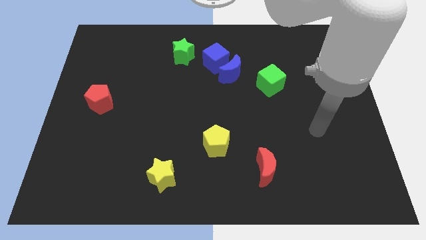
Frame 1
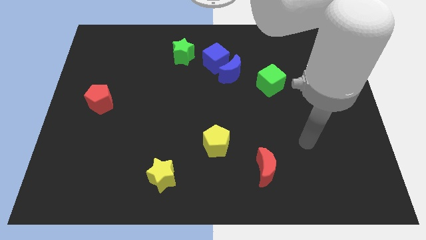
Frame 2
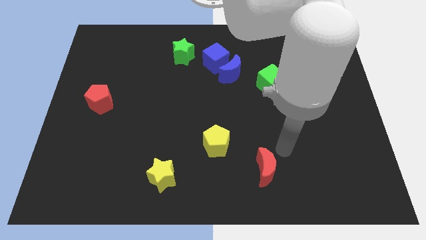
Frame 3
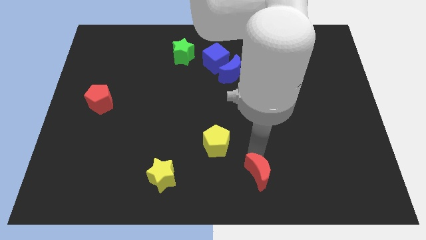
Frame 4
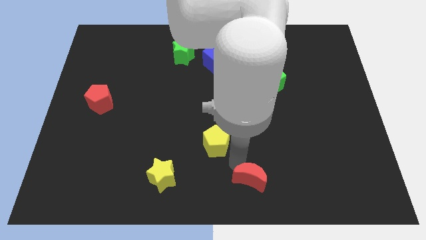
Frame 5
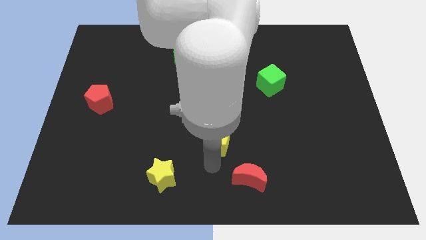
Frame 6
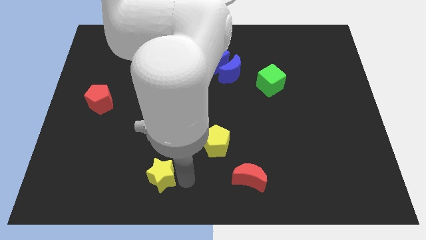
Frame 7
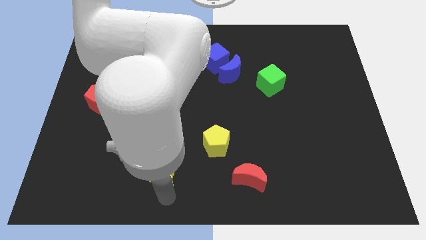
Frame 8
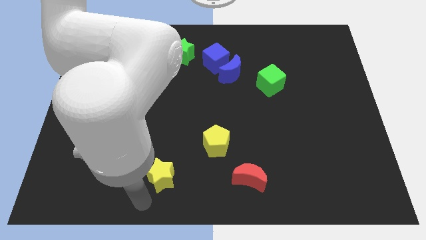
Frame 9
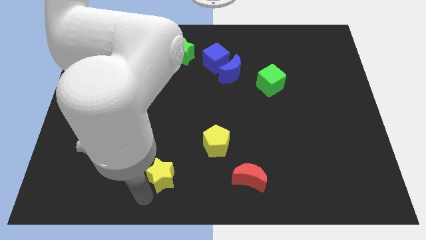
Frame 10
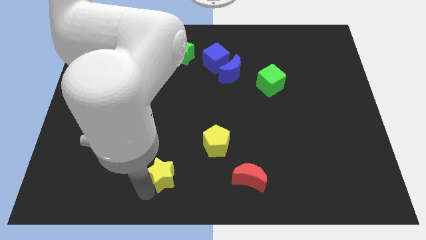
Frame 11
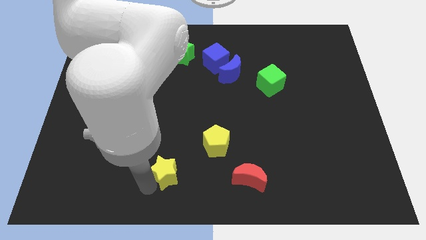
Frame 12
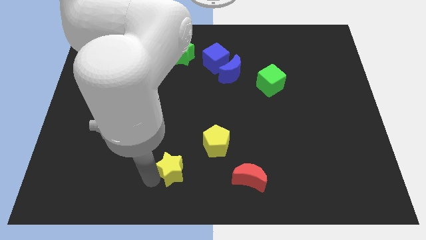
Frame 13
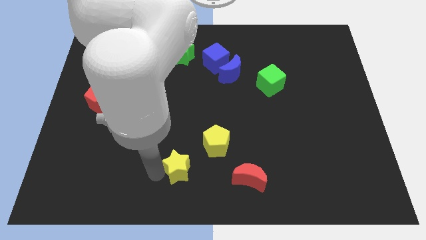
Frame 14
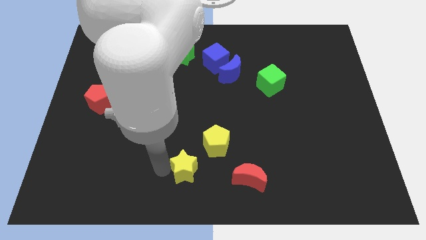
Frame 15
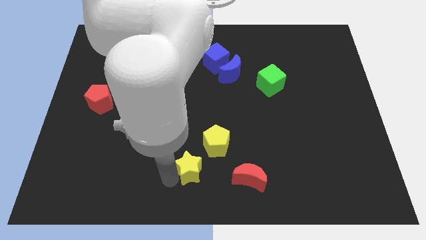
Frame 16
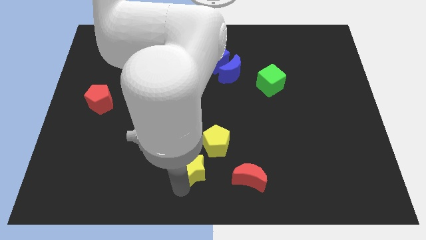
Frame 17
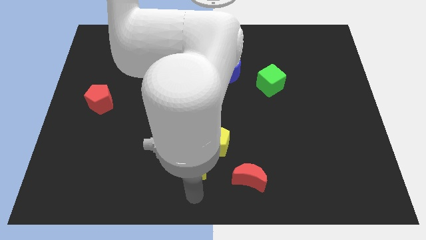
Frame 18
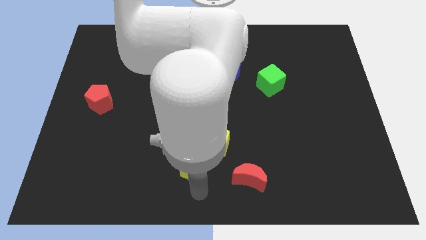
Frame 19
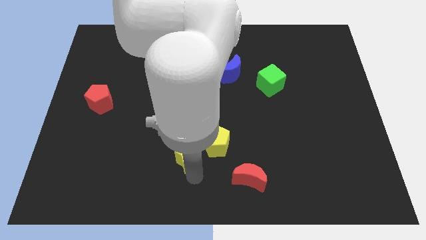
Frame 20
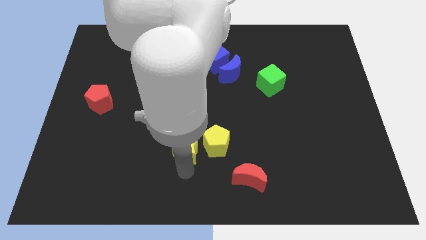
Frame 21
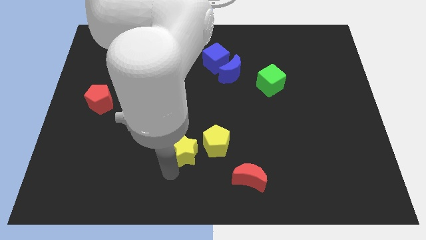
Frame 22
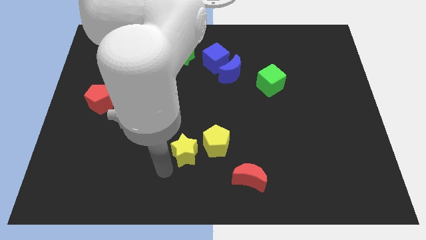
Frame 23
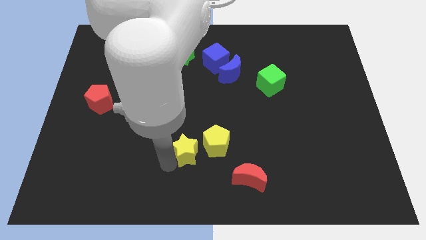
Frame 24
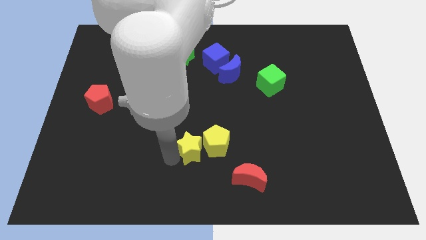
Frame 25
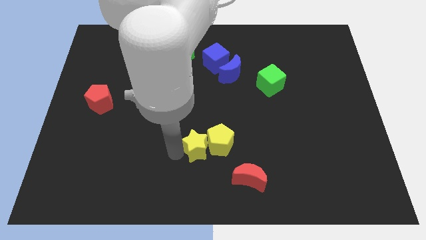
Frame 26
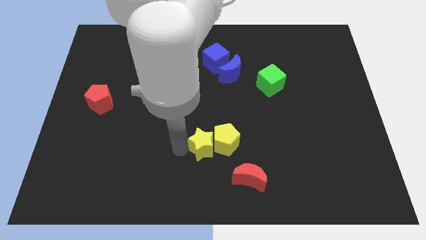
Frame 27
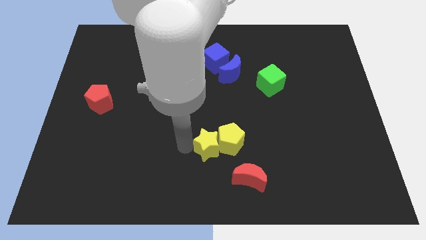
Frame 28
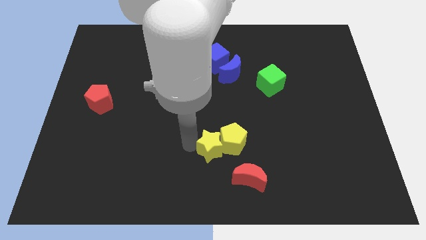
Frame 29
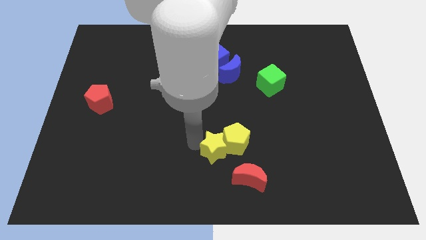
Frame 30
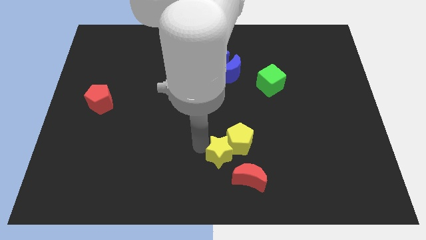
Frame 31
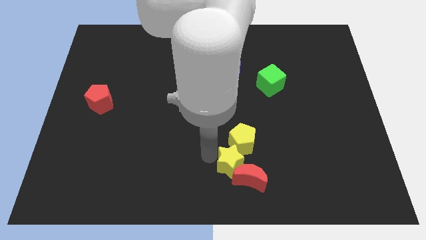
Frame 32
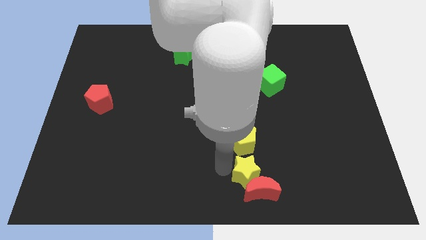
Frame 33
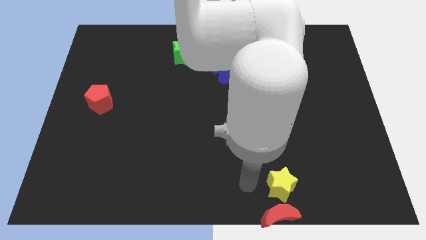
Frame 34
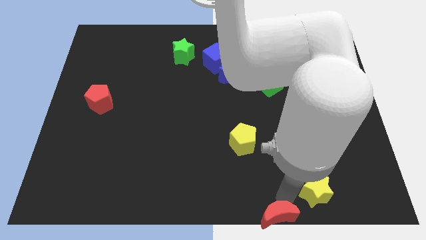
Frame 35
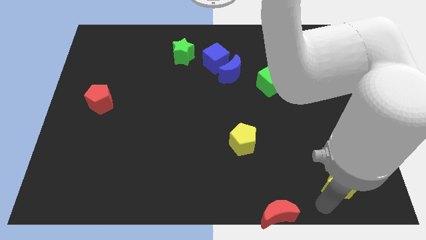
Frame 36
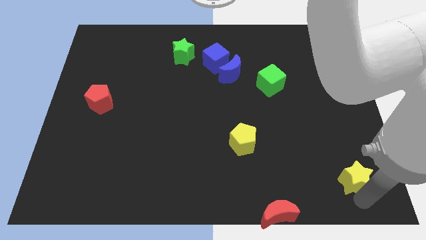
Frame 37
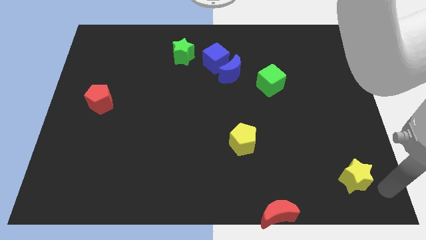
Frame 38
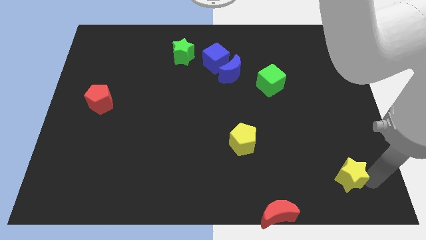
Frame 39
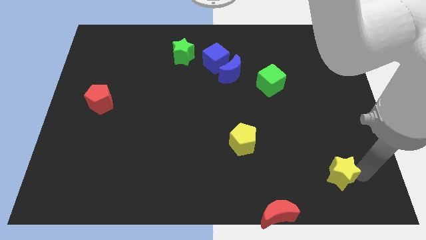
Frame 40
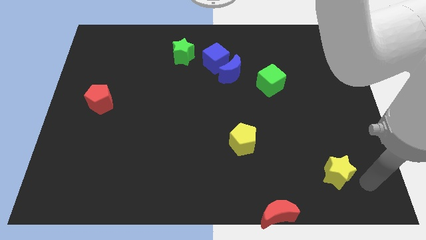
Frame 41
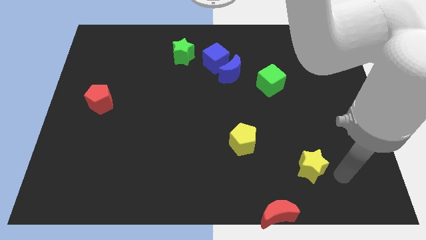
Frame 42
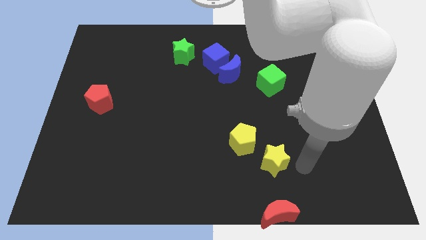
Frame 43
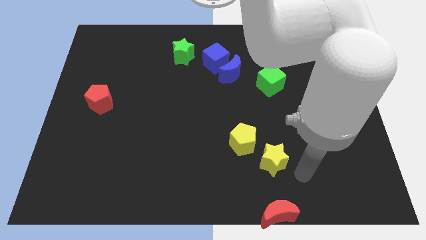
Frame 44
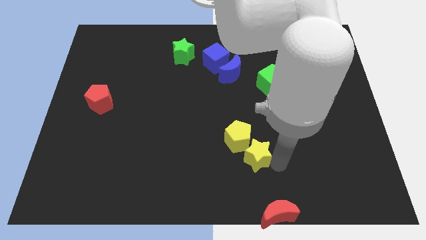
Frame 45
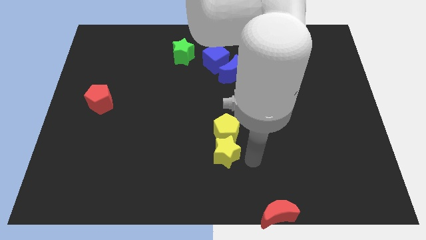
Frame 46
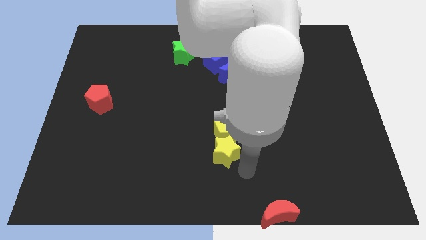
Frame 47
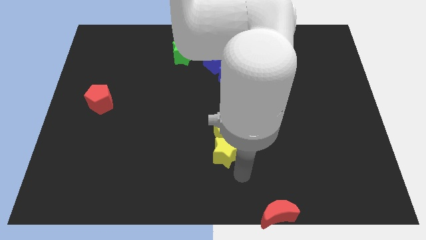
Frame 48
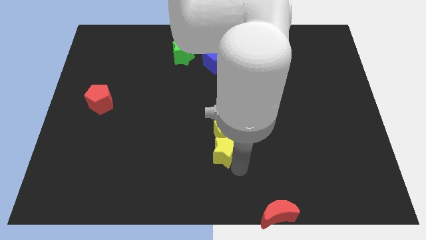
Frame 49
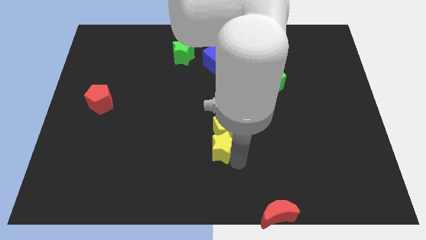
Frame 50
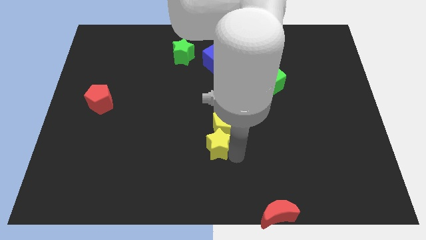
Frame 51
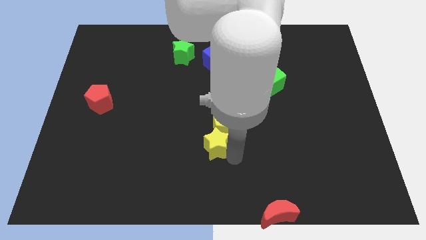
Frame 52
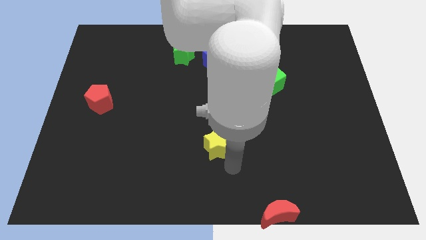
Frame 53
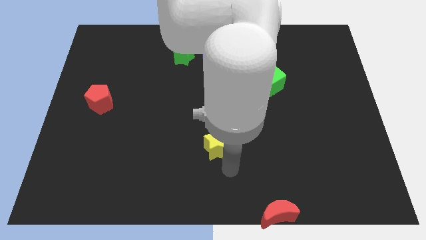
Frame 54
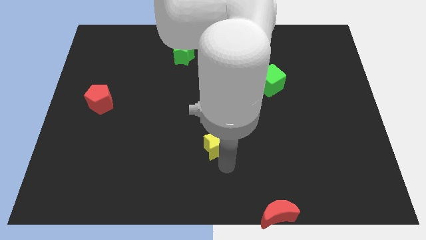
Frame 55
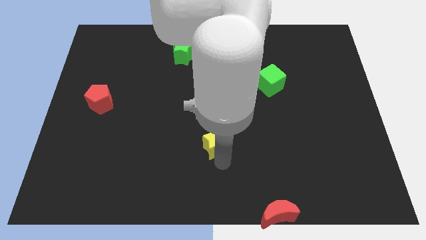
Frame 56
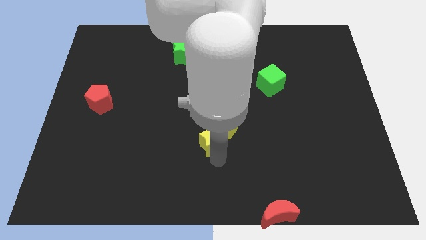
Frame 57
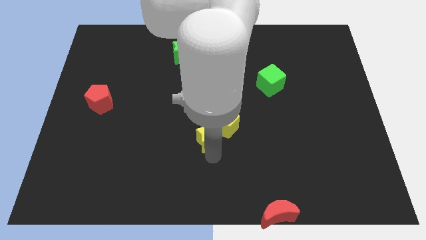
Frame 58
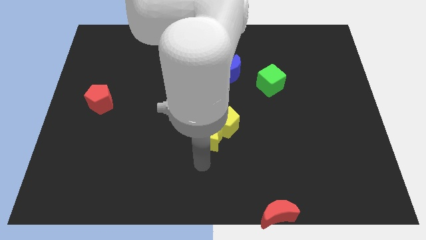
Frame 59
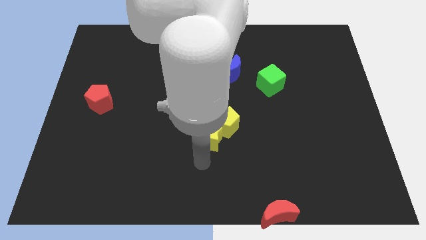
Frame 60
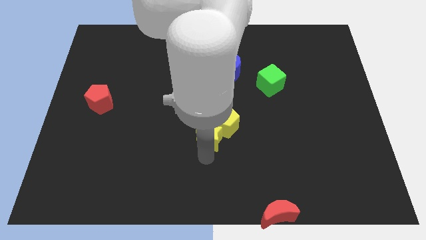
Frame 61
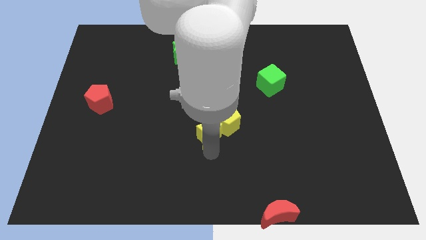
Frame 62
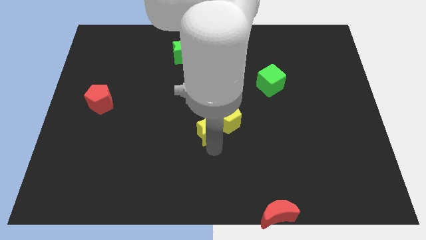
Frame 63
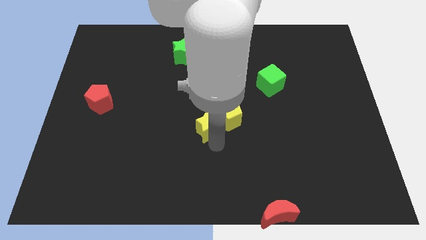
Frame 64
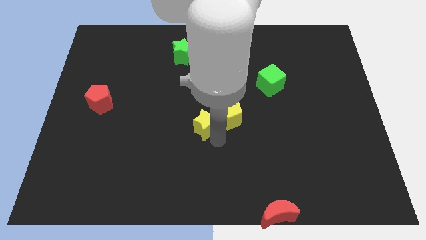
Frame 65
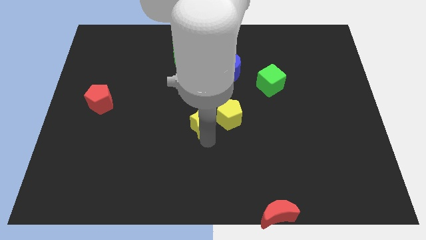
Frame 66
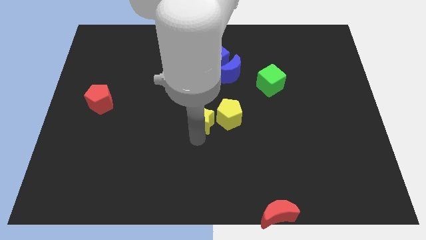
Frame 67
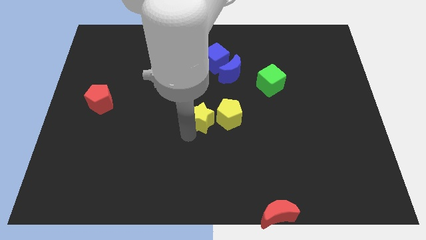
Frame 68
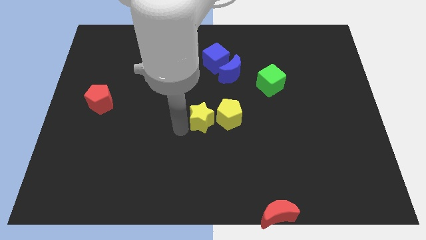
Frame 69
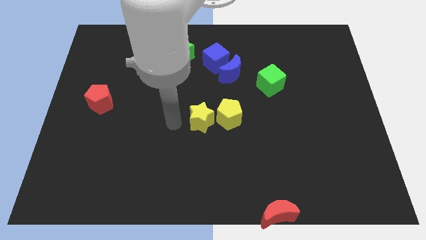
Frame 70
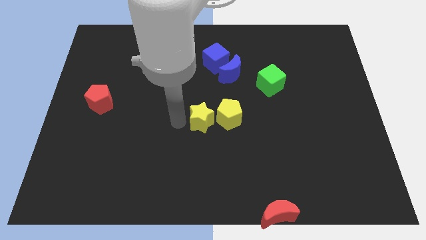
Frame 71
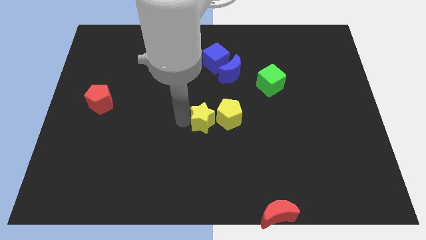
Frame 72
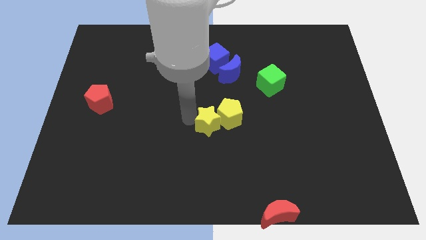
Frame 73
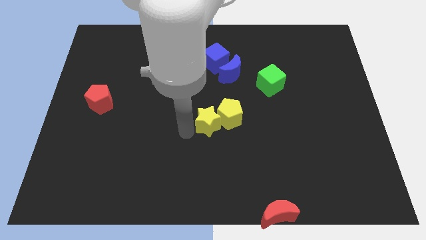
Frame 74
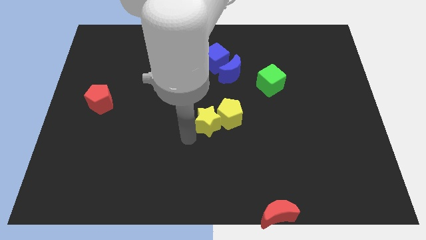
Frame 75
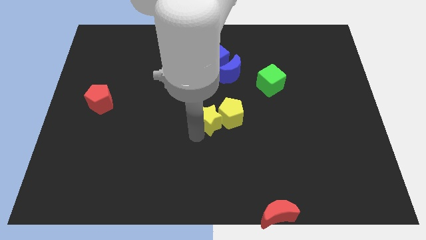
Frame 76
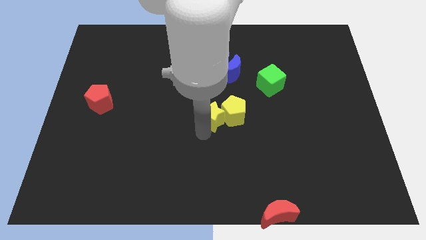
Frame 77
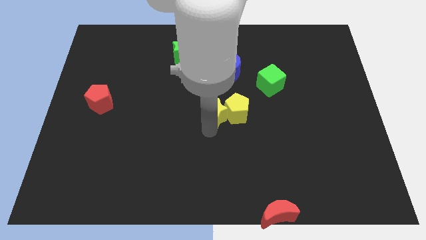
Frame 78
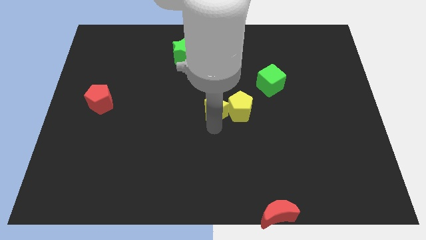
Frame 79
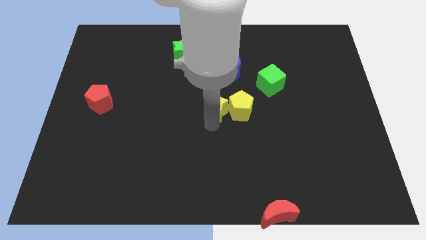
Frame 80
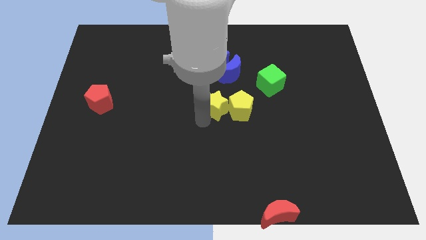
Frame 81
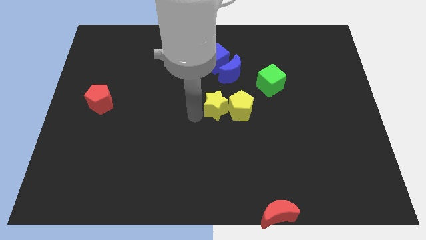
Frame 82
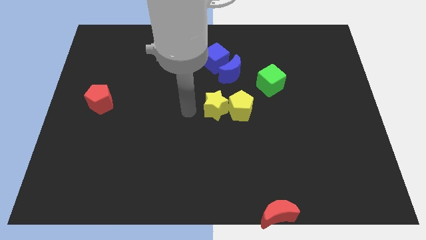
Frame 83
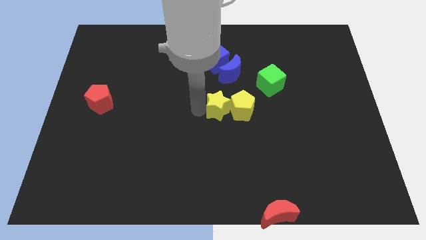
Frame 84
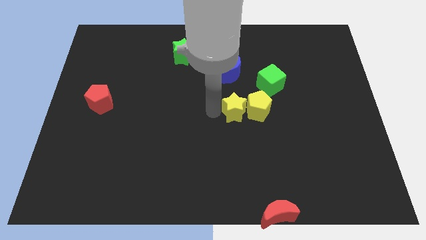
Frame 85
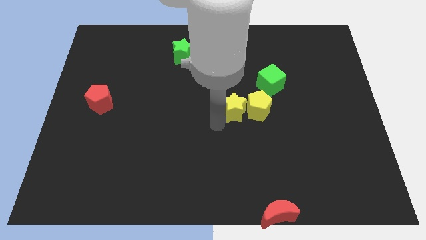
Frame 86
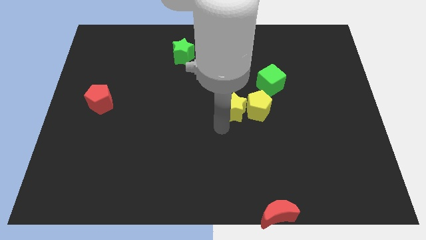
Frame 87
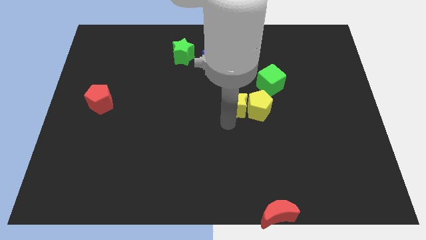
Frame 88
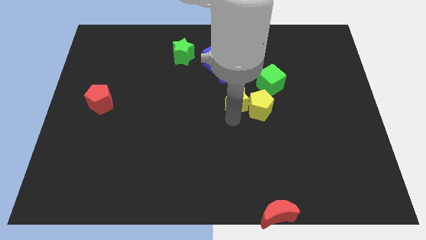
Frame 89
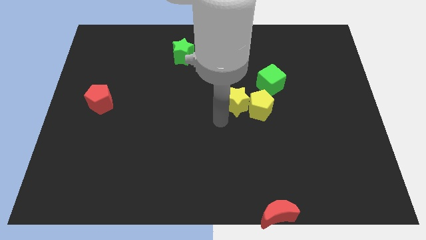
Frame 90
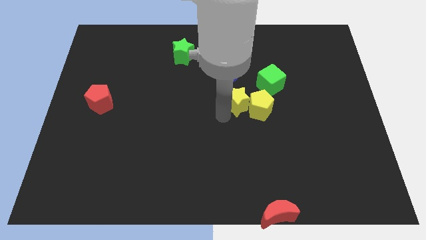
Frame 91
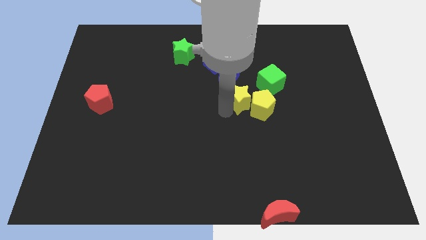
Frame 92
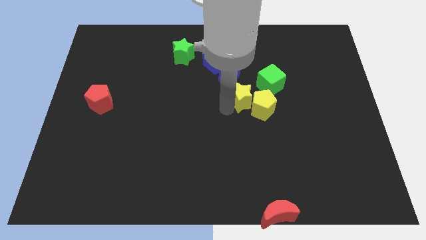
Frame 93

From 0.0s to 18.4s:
push the yellow star diagonally down and to the right of the blue moon
